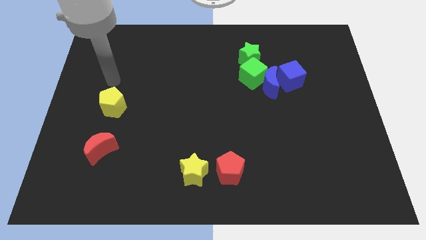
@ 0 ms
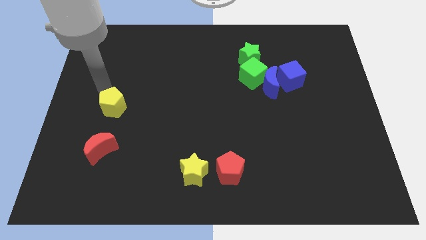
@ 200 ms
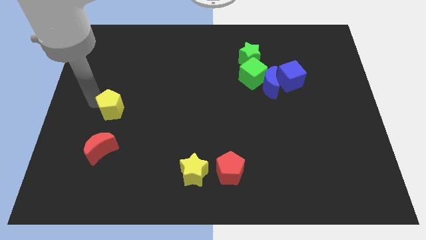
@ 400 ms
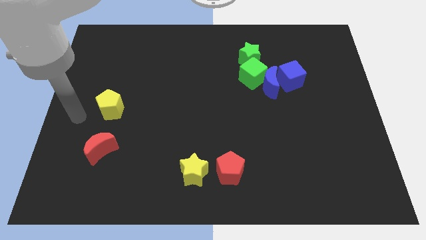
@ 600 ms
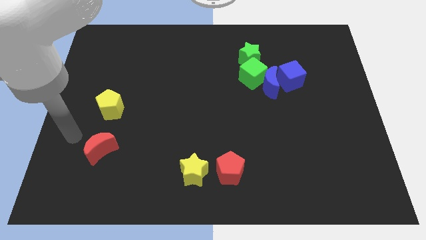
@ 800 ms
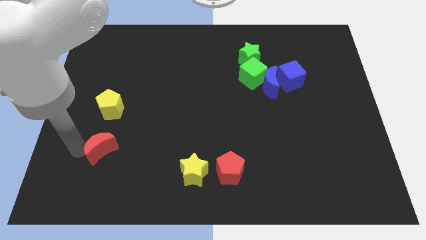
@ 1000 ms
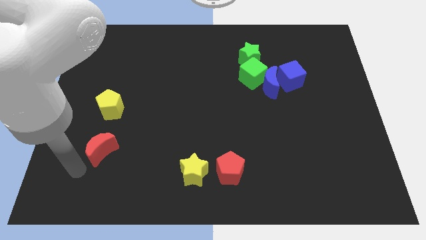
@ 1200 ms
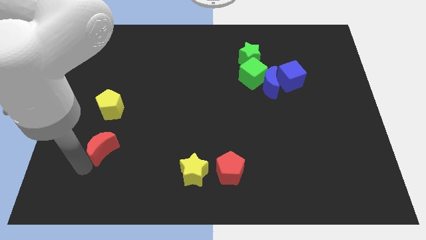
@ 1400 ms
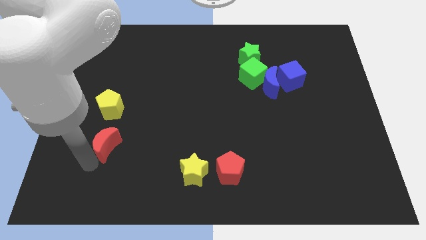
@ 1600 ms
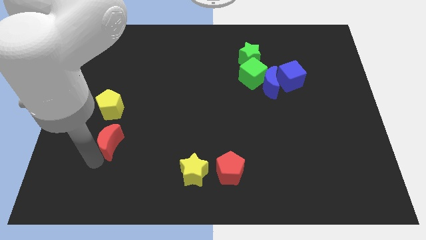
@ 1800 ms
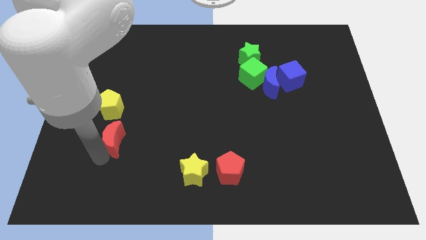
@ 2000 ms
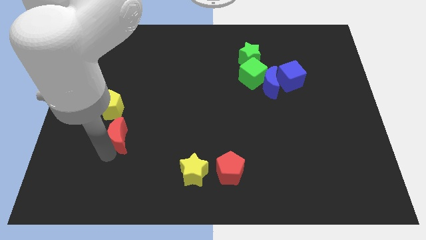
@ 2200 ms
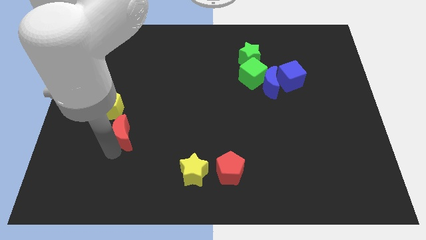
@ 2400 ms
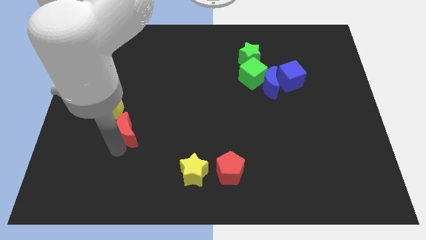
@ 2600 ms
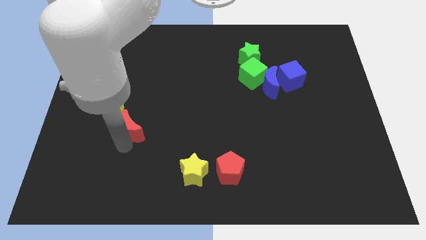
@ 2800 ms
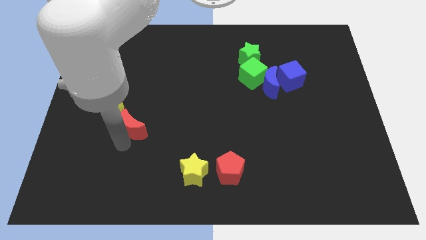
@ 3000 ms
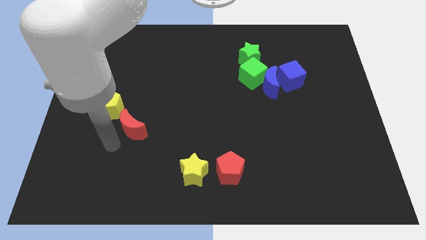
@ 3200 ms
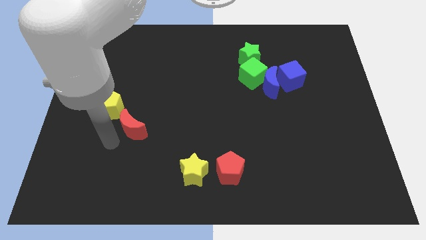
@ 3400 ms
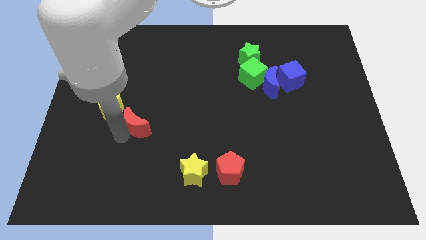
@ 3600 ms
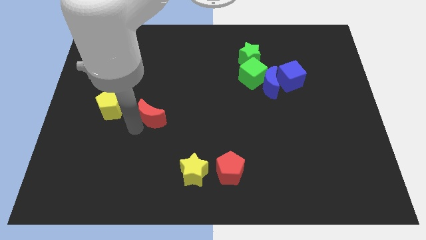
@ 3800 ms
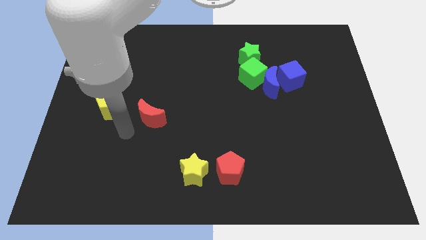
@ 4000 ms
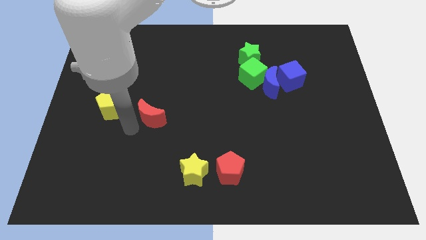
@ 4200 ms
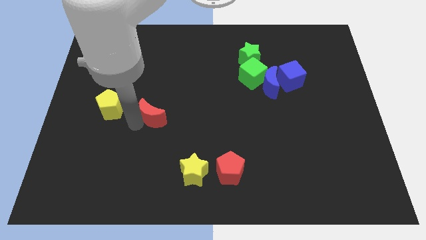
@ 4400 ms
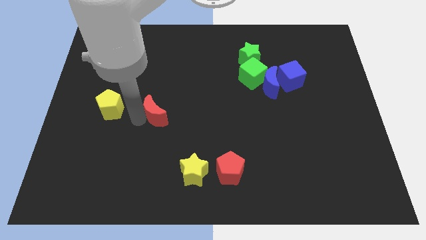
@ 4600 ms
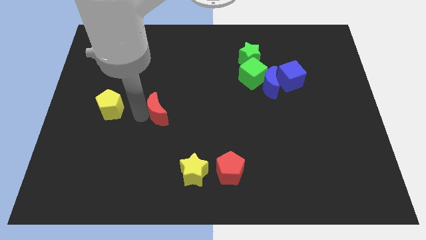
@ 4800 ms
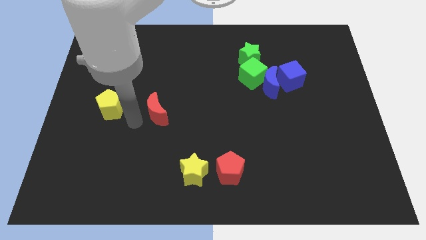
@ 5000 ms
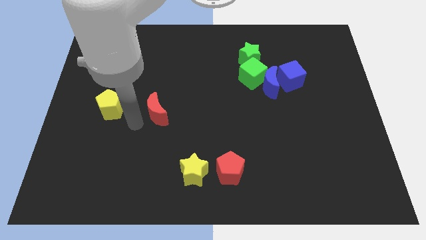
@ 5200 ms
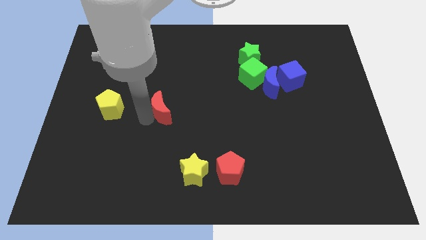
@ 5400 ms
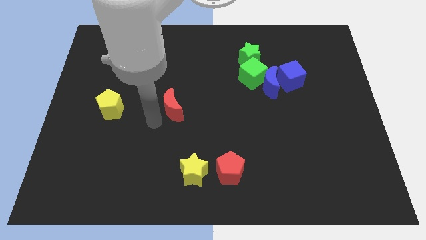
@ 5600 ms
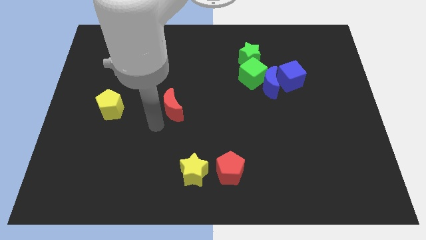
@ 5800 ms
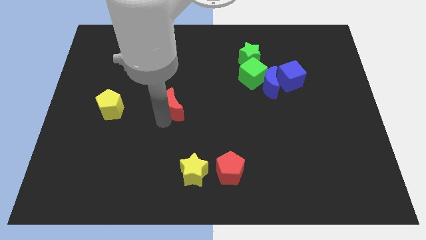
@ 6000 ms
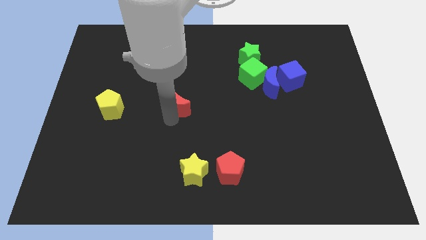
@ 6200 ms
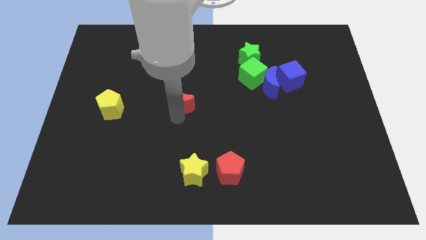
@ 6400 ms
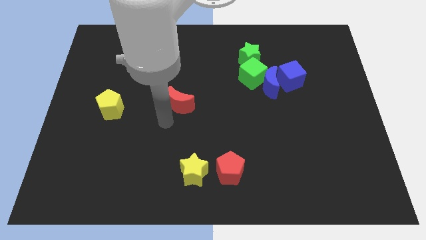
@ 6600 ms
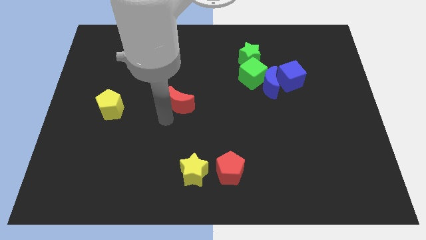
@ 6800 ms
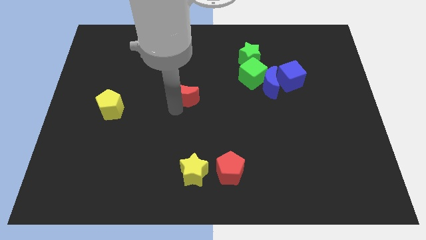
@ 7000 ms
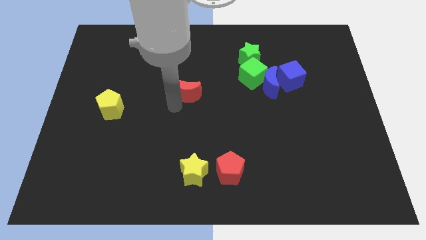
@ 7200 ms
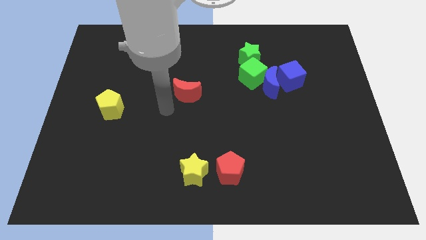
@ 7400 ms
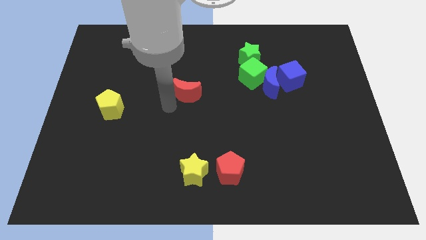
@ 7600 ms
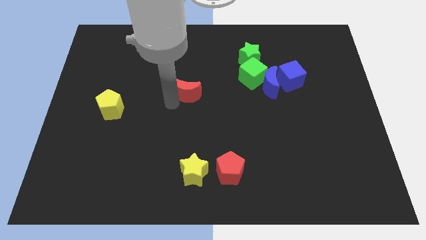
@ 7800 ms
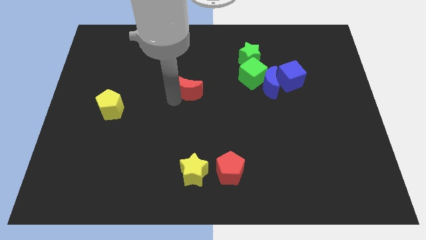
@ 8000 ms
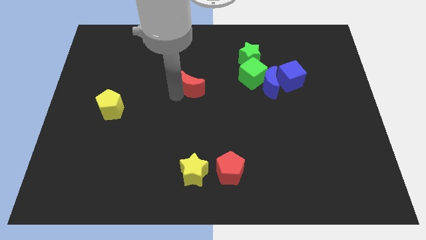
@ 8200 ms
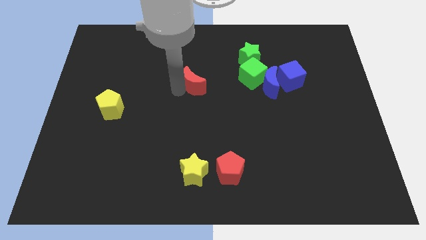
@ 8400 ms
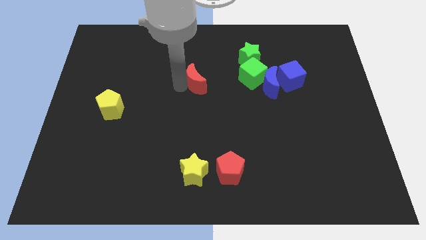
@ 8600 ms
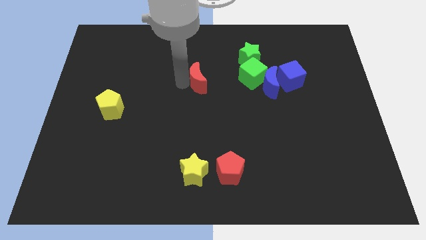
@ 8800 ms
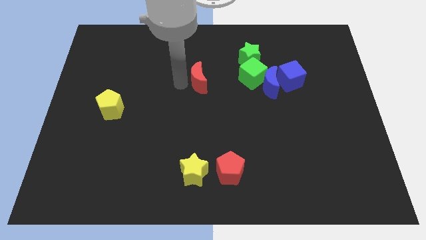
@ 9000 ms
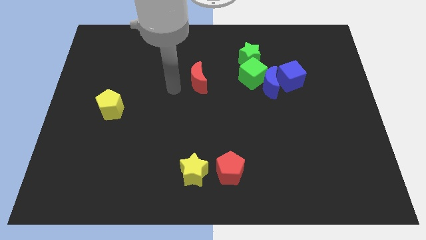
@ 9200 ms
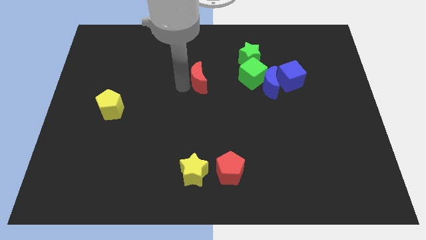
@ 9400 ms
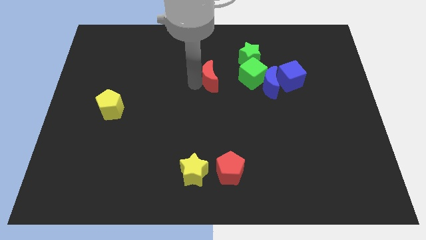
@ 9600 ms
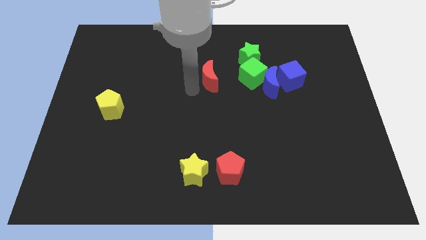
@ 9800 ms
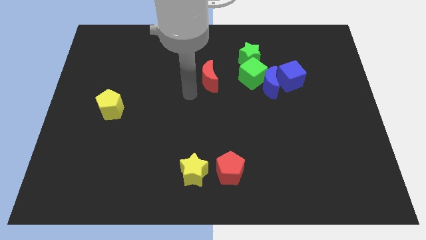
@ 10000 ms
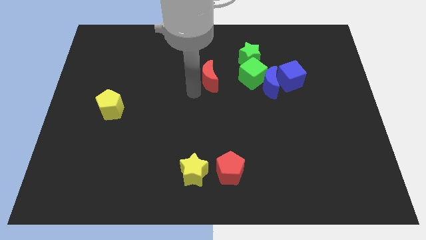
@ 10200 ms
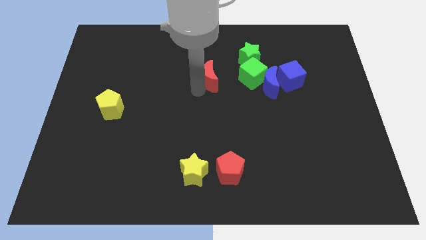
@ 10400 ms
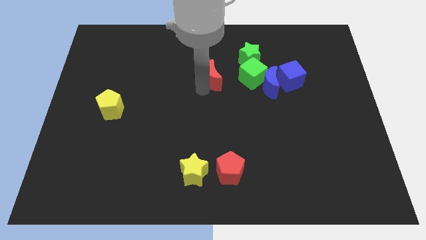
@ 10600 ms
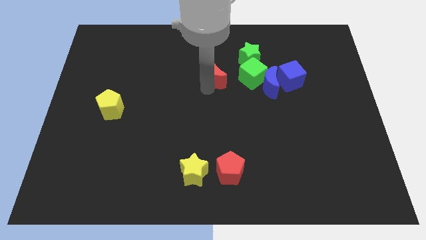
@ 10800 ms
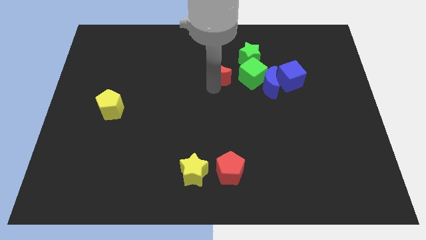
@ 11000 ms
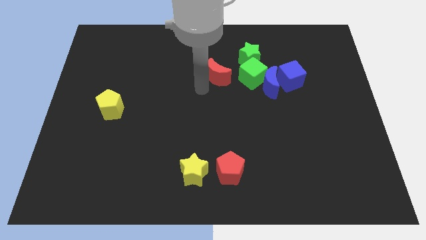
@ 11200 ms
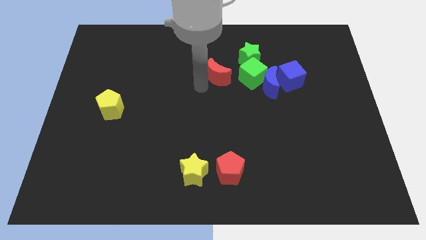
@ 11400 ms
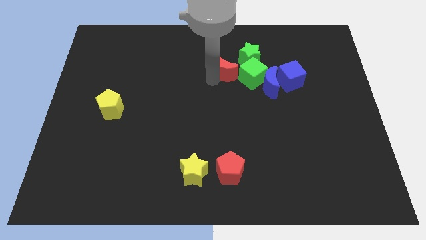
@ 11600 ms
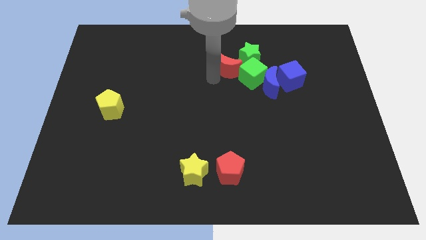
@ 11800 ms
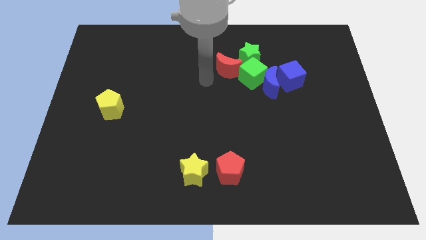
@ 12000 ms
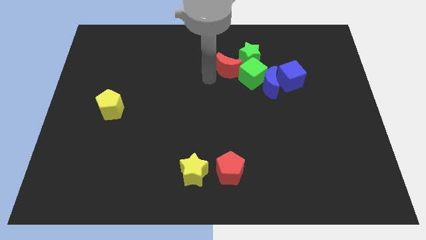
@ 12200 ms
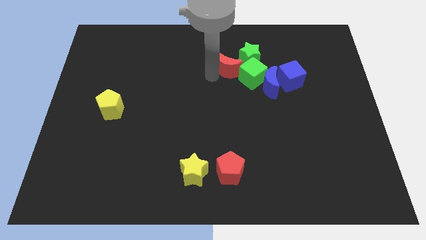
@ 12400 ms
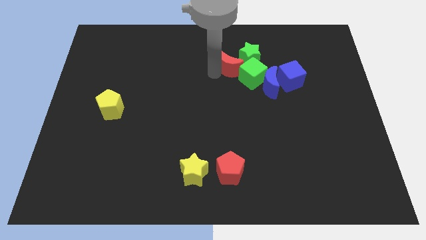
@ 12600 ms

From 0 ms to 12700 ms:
move the red moon next to the green star

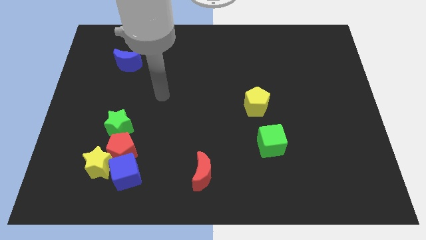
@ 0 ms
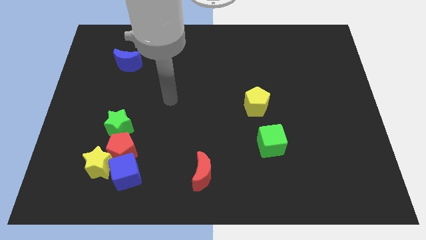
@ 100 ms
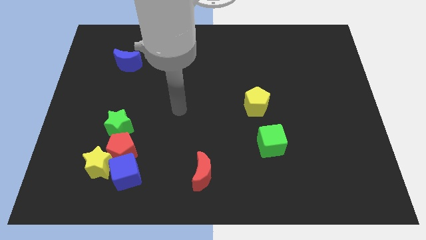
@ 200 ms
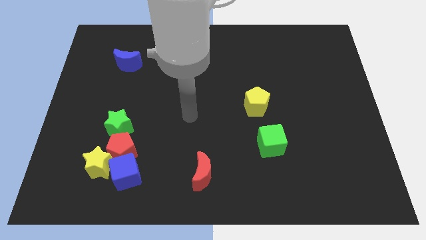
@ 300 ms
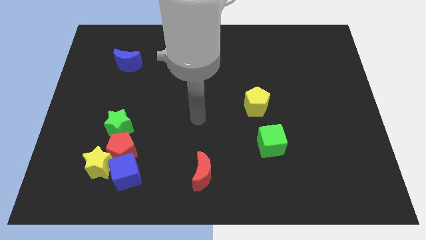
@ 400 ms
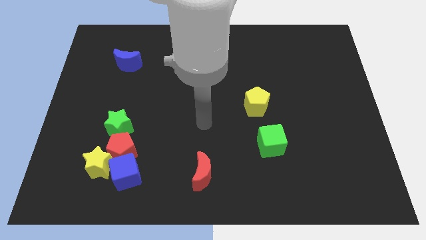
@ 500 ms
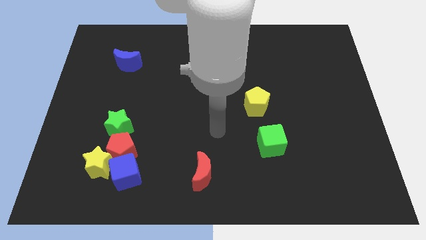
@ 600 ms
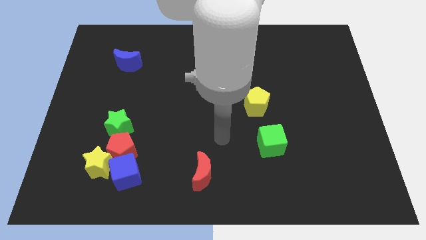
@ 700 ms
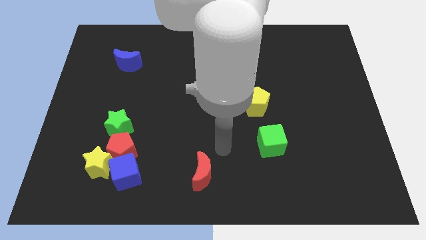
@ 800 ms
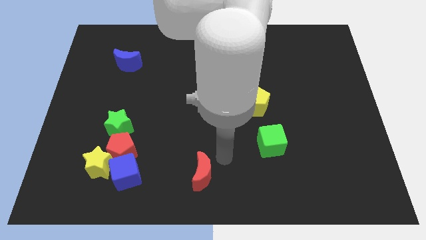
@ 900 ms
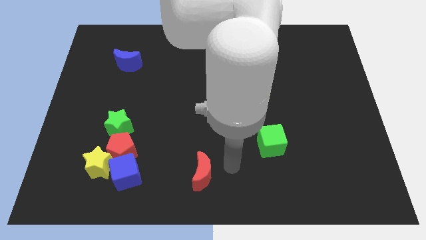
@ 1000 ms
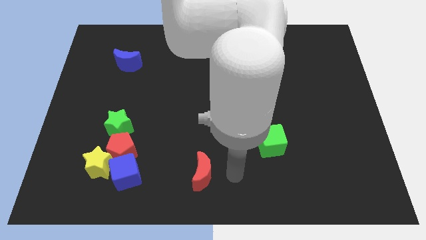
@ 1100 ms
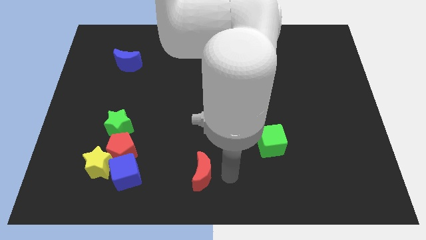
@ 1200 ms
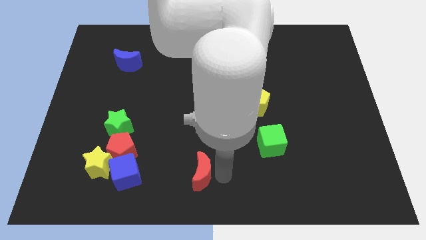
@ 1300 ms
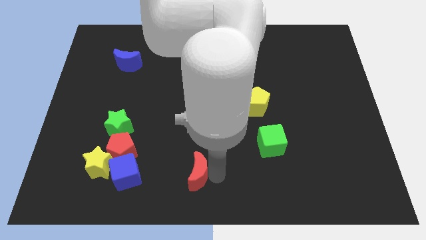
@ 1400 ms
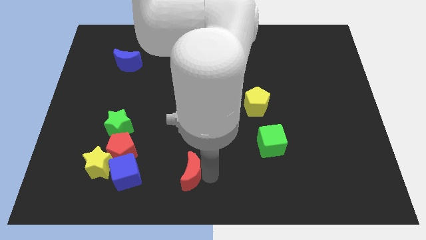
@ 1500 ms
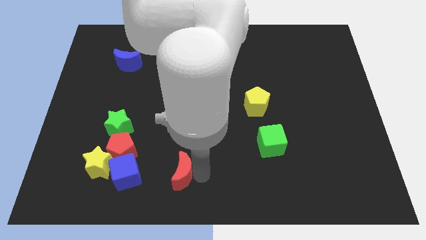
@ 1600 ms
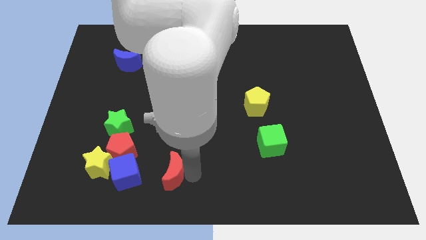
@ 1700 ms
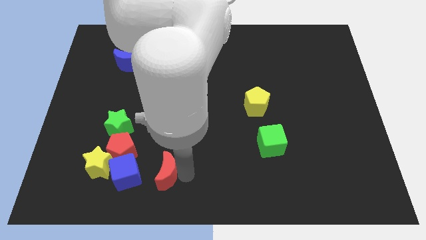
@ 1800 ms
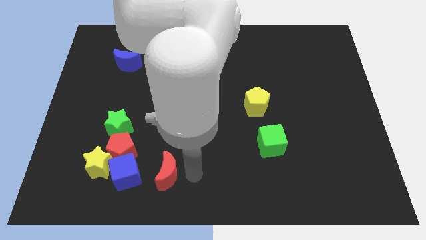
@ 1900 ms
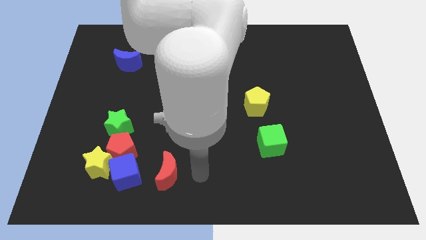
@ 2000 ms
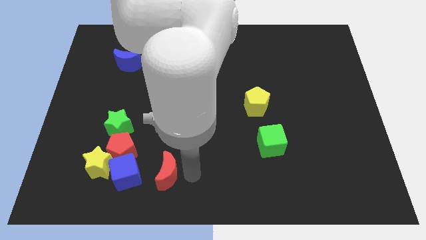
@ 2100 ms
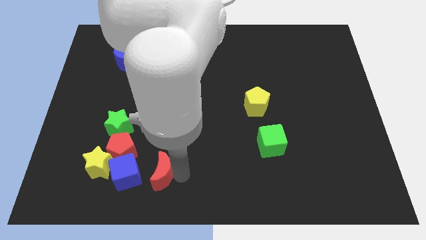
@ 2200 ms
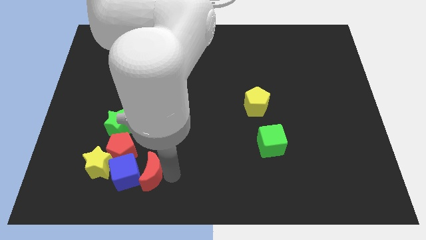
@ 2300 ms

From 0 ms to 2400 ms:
move the red moon close to the blue cube
